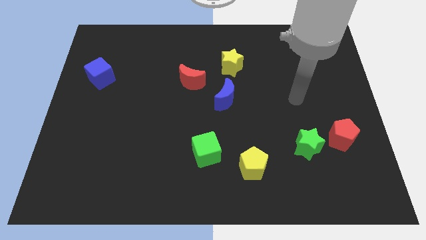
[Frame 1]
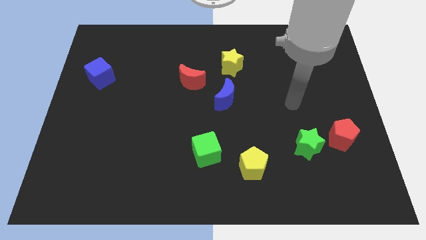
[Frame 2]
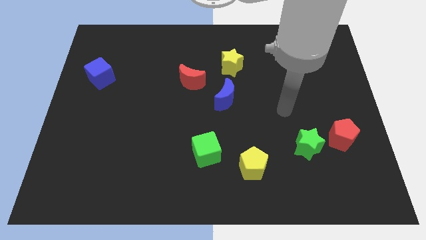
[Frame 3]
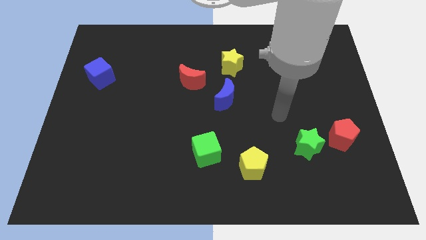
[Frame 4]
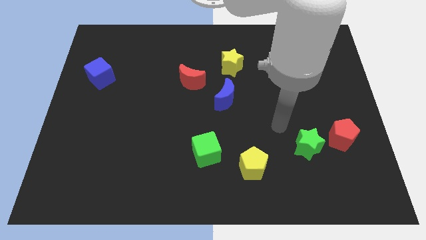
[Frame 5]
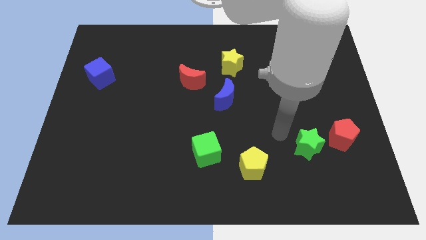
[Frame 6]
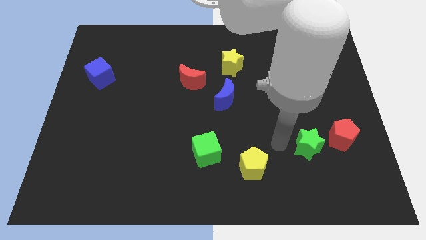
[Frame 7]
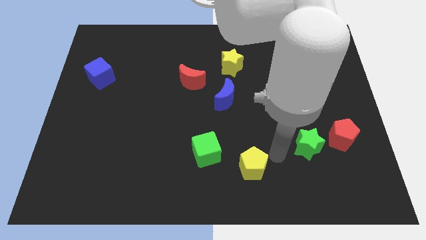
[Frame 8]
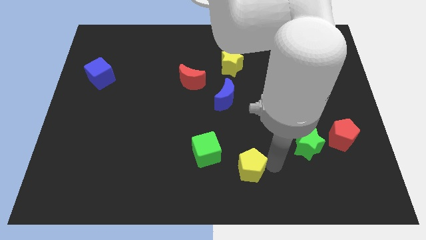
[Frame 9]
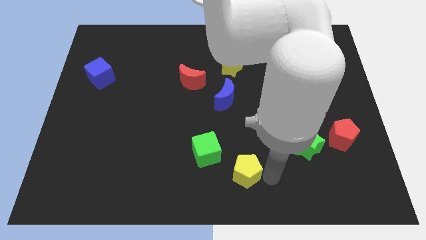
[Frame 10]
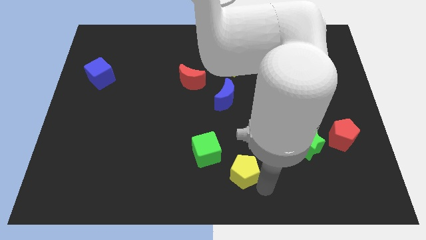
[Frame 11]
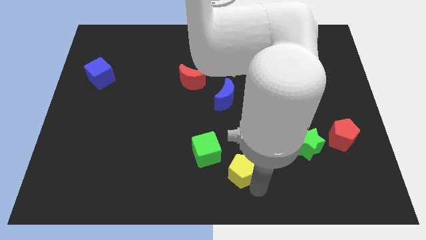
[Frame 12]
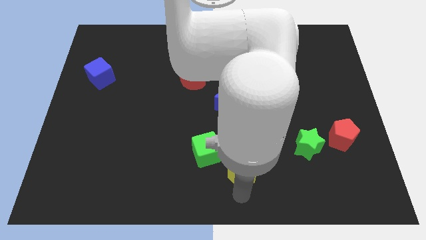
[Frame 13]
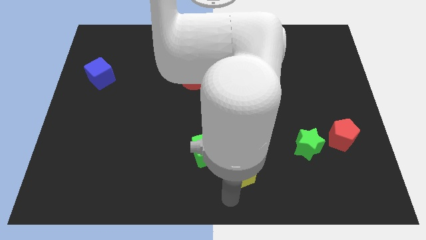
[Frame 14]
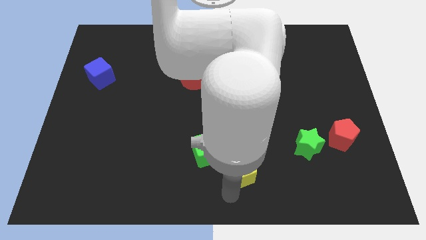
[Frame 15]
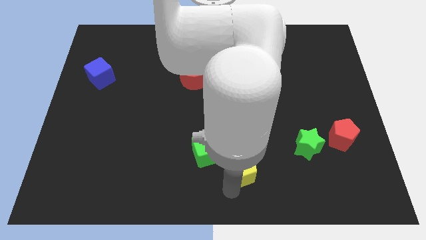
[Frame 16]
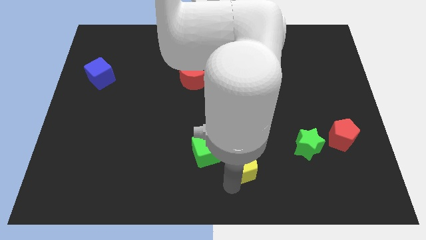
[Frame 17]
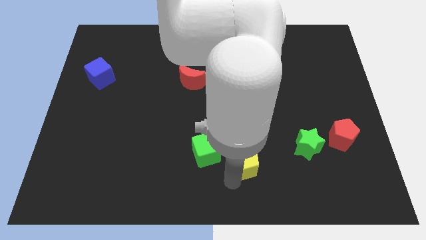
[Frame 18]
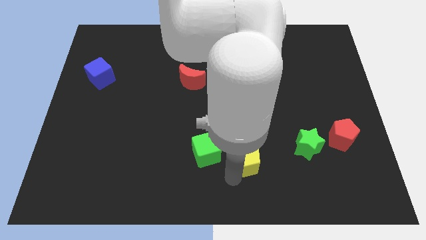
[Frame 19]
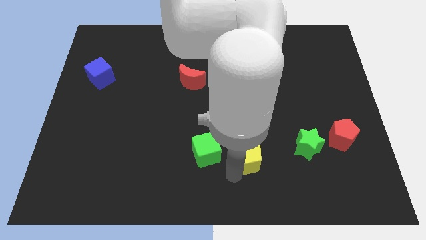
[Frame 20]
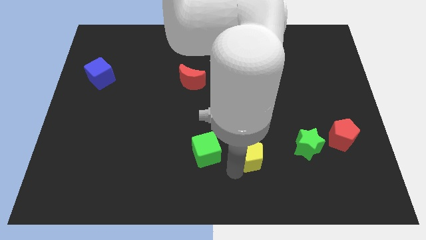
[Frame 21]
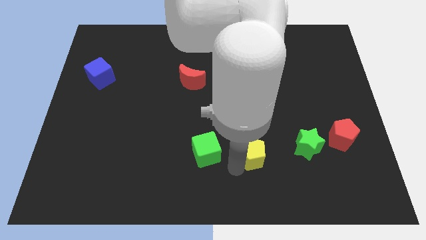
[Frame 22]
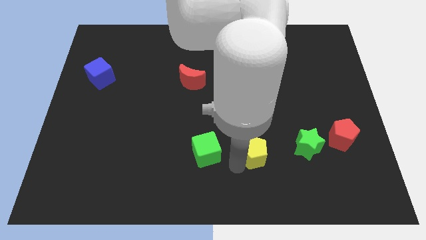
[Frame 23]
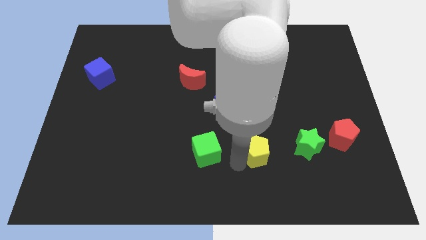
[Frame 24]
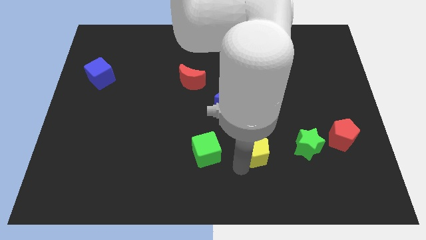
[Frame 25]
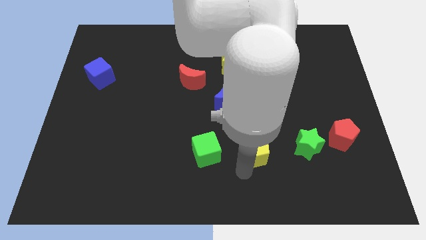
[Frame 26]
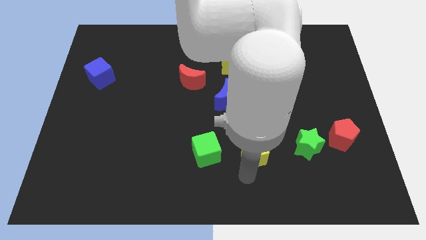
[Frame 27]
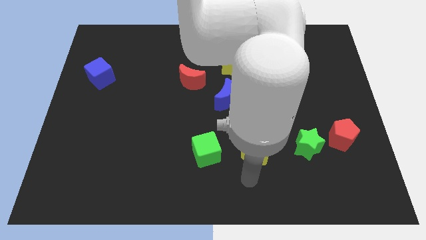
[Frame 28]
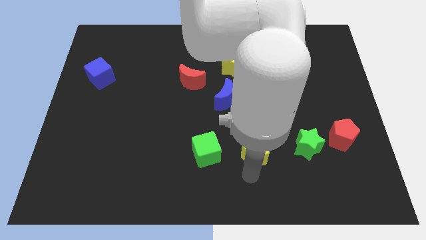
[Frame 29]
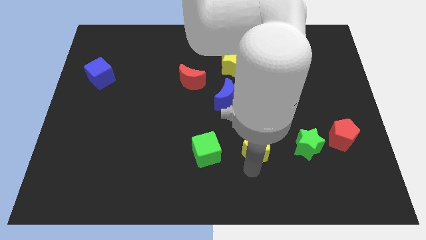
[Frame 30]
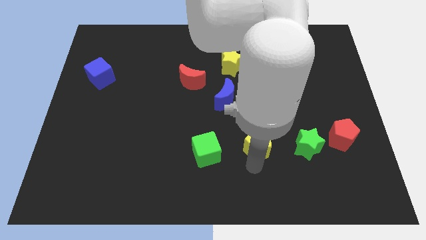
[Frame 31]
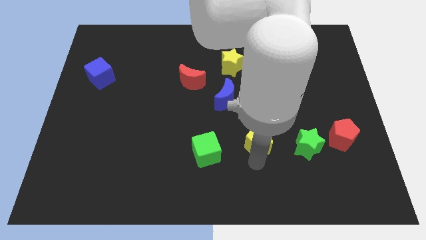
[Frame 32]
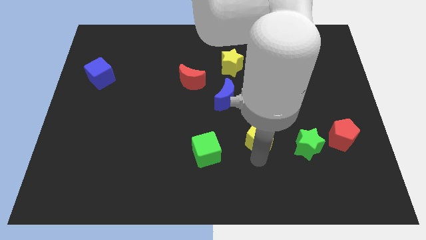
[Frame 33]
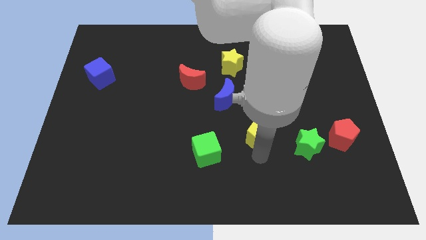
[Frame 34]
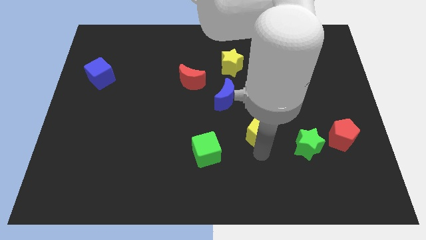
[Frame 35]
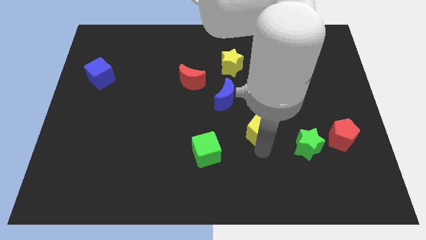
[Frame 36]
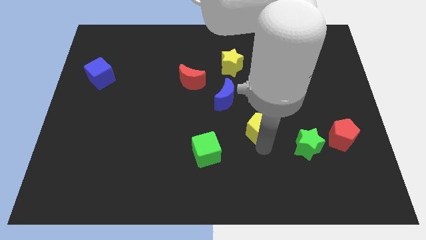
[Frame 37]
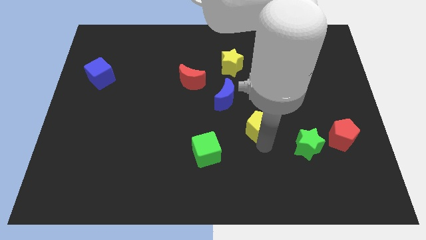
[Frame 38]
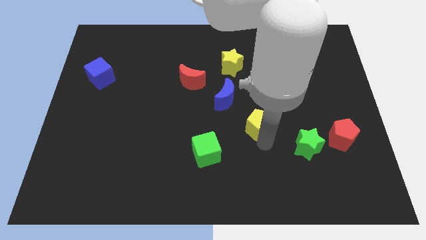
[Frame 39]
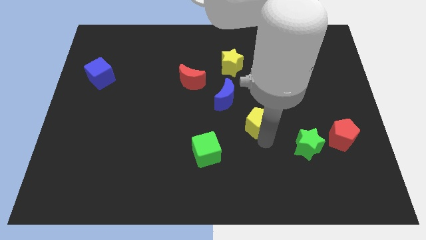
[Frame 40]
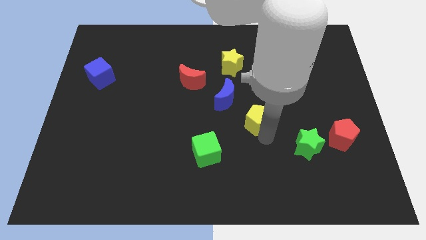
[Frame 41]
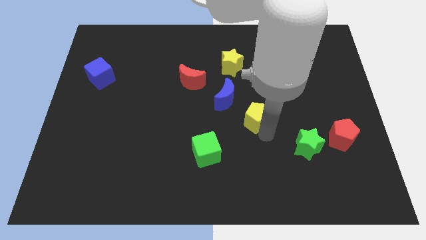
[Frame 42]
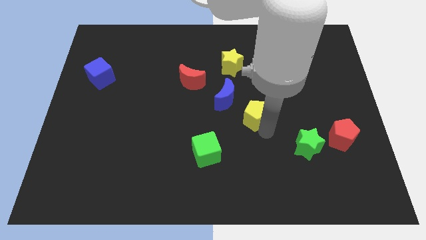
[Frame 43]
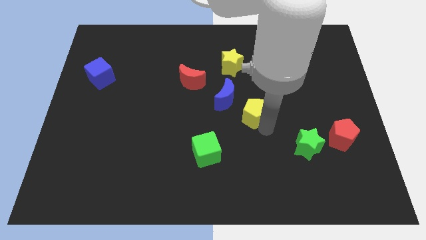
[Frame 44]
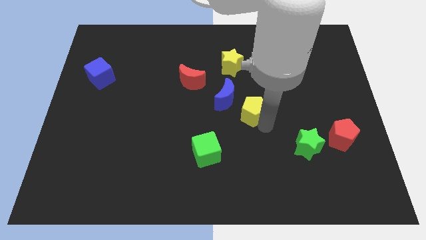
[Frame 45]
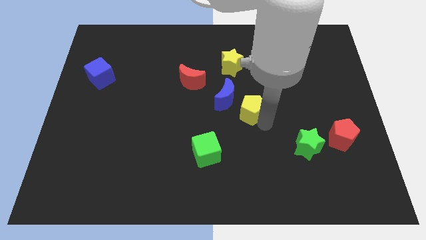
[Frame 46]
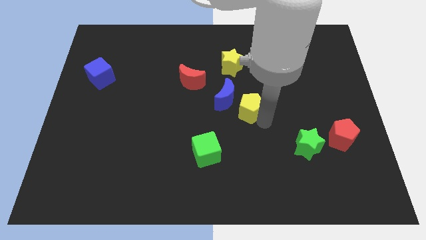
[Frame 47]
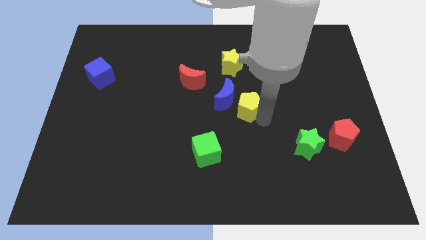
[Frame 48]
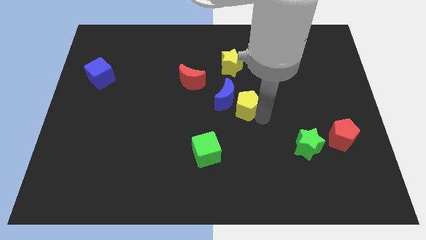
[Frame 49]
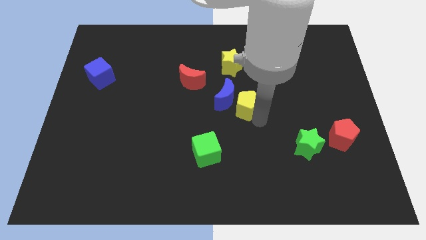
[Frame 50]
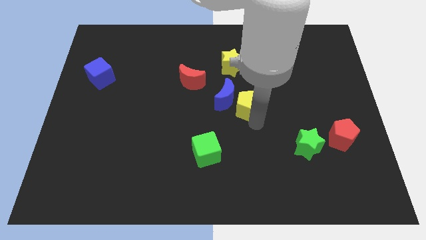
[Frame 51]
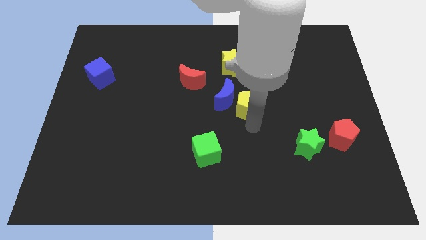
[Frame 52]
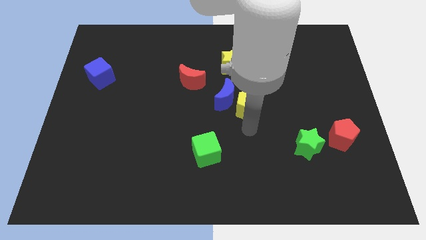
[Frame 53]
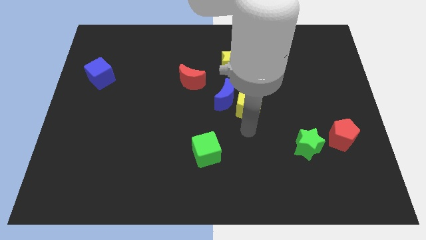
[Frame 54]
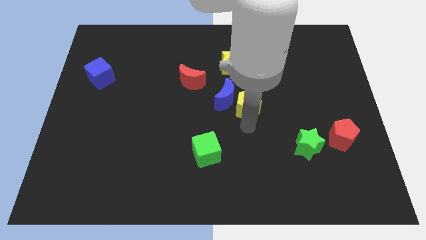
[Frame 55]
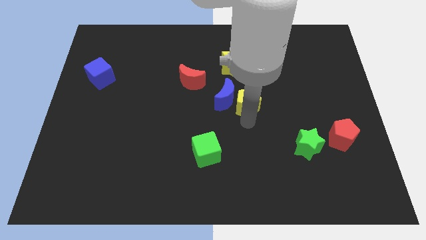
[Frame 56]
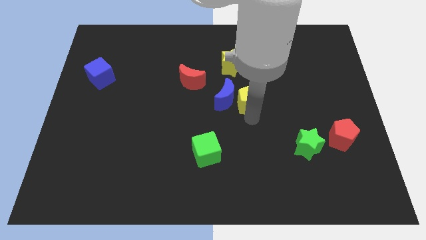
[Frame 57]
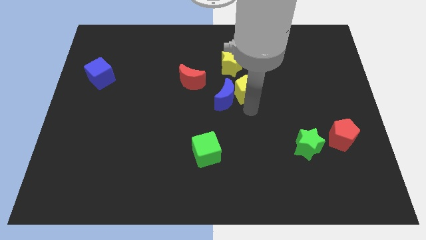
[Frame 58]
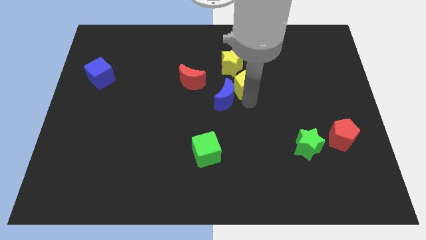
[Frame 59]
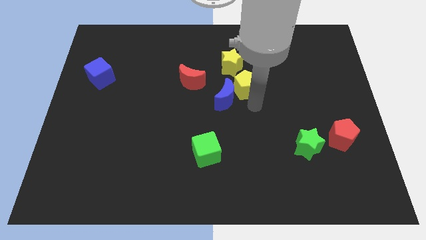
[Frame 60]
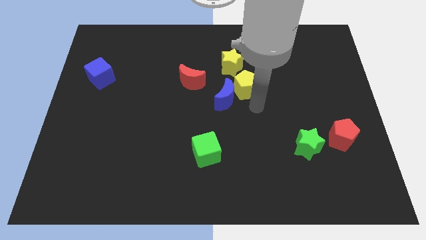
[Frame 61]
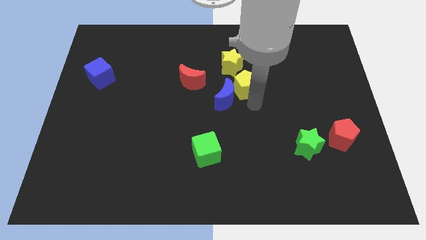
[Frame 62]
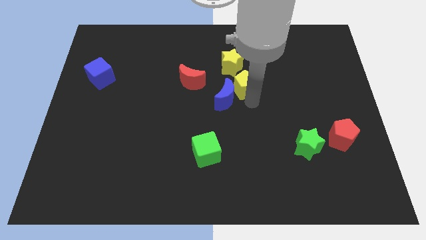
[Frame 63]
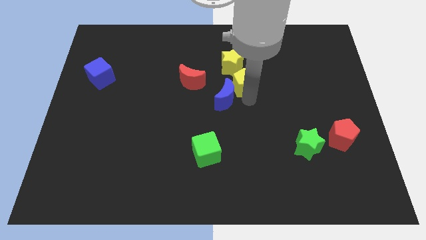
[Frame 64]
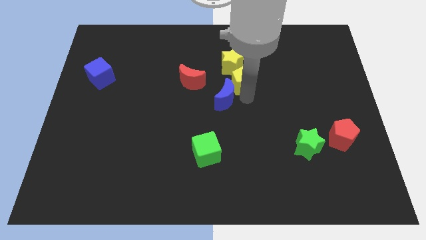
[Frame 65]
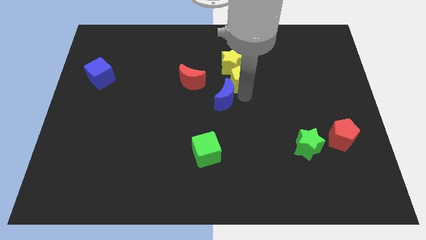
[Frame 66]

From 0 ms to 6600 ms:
push the yellow pentagon towards the yellow star

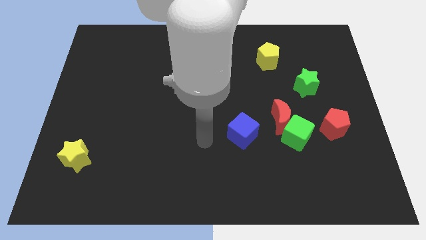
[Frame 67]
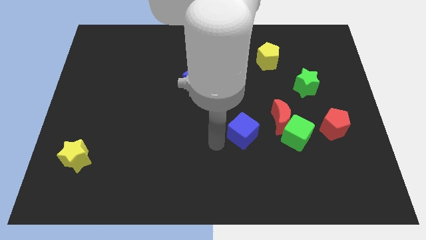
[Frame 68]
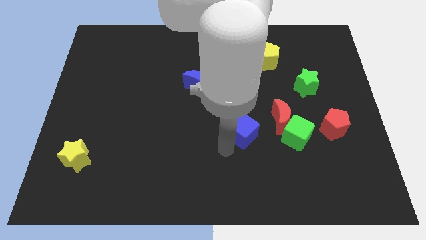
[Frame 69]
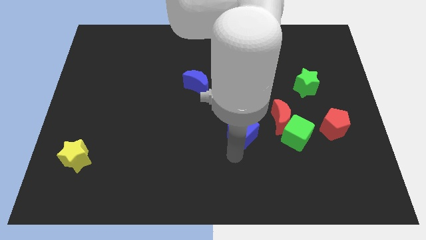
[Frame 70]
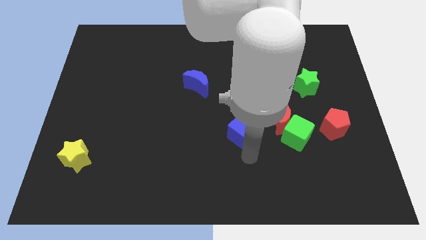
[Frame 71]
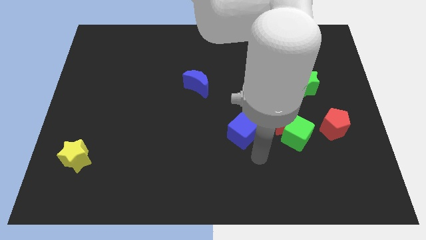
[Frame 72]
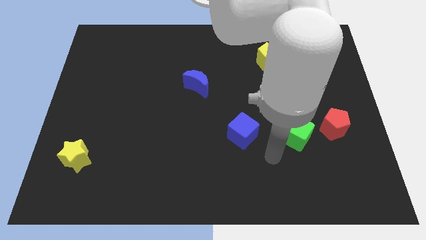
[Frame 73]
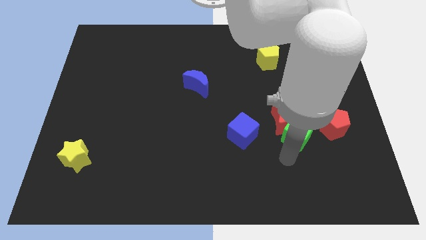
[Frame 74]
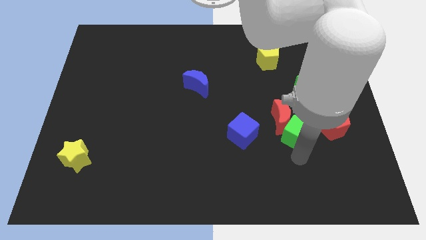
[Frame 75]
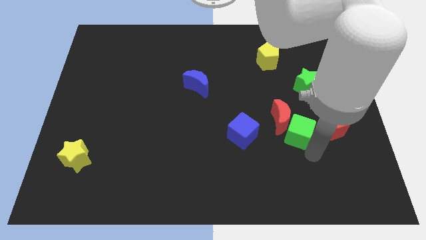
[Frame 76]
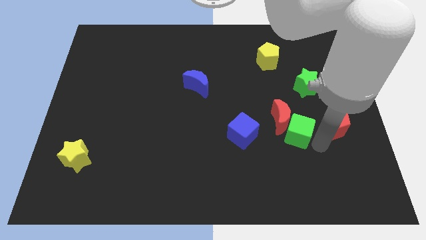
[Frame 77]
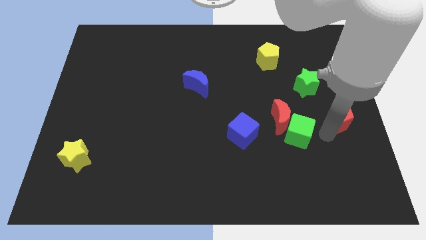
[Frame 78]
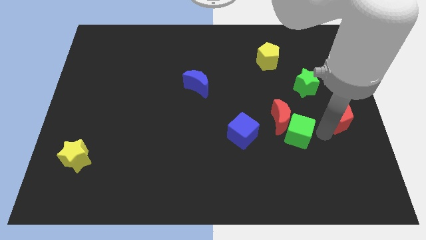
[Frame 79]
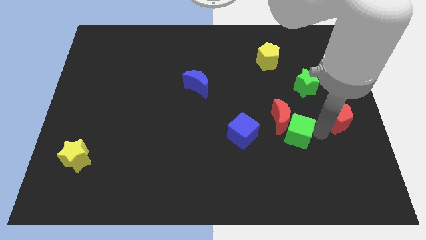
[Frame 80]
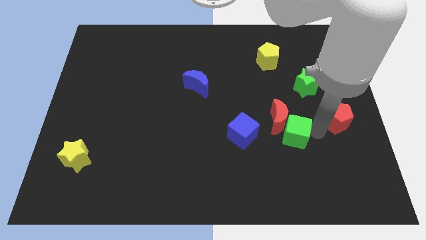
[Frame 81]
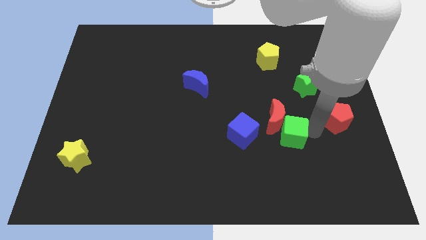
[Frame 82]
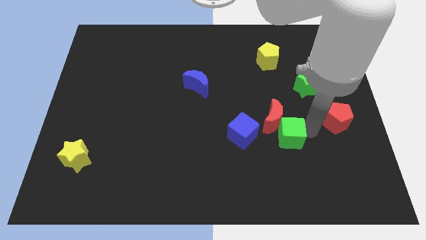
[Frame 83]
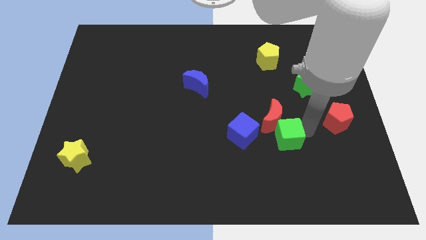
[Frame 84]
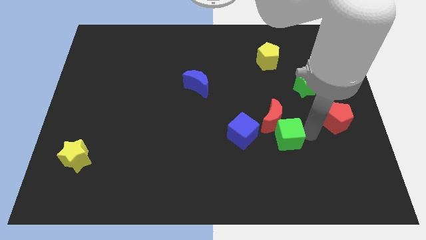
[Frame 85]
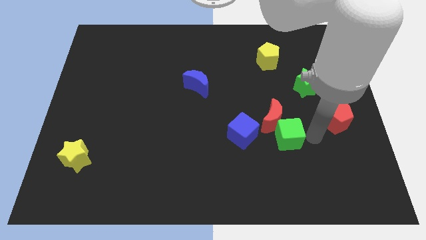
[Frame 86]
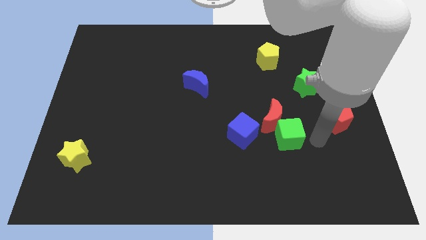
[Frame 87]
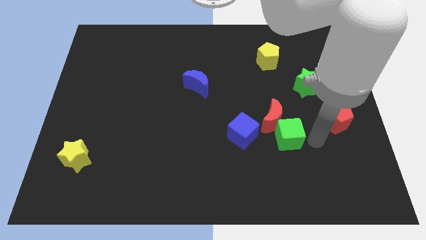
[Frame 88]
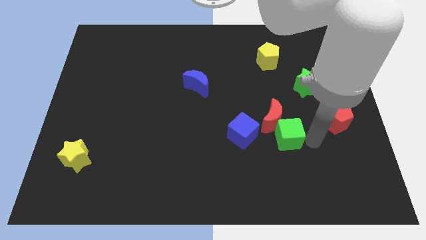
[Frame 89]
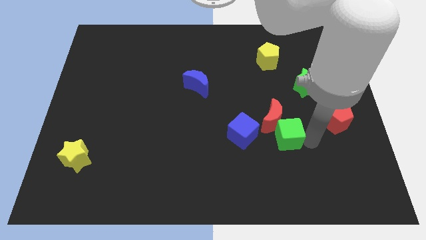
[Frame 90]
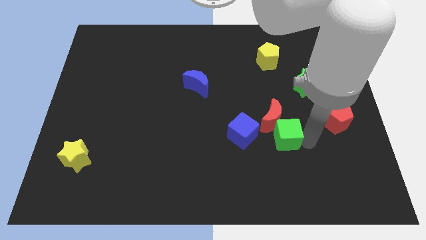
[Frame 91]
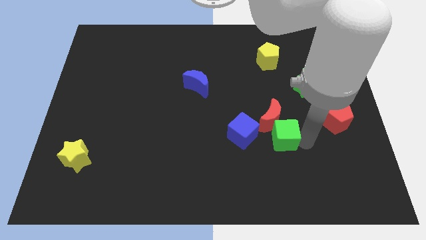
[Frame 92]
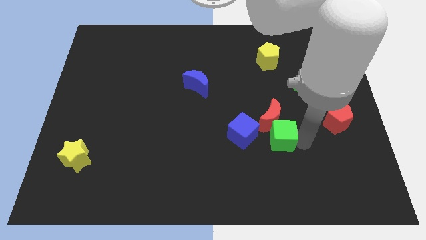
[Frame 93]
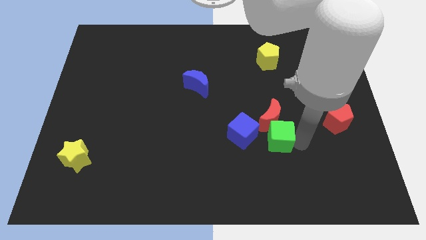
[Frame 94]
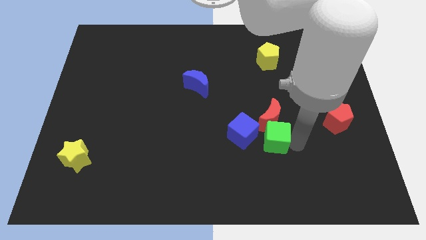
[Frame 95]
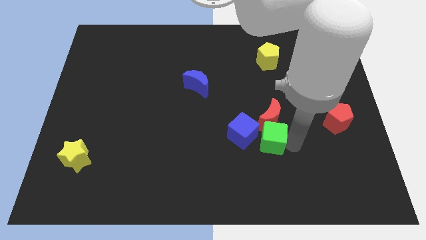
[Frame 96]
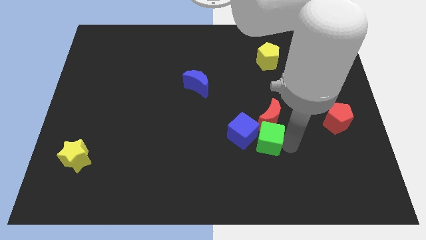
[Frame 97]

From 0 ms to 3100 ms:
move the green cube to the blue cube
